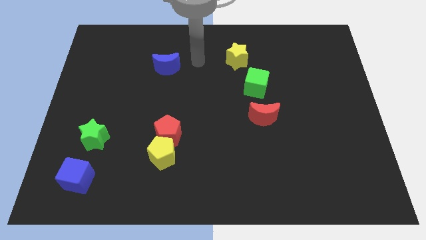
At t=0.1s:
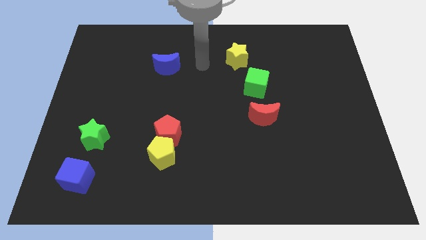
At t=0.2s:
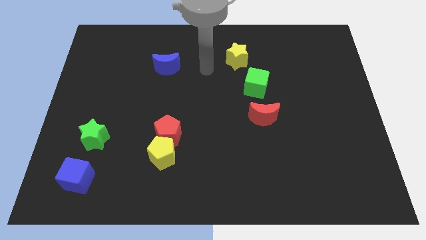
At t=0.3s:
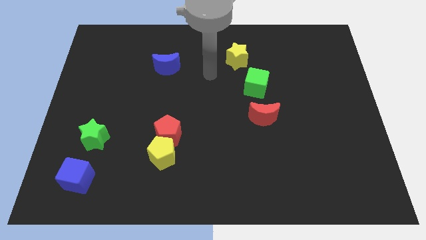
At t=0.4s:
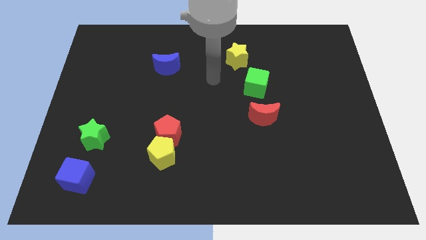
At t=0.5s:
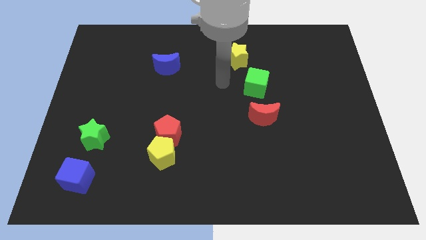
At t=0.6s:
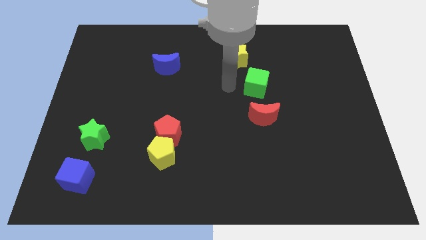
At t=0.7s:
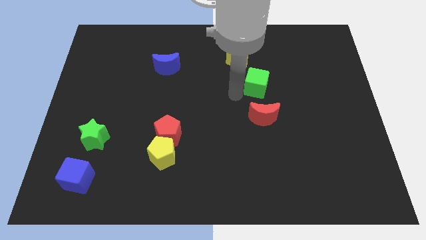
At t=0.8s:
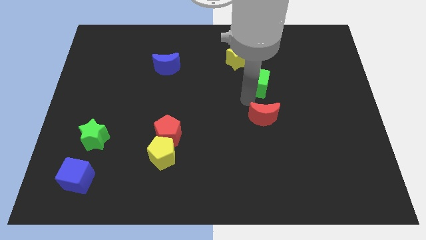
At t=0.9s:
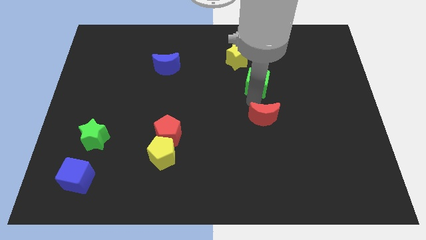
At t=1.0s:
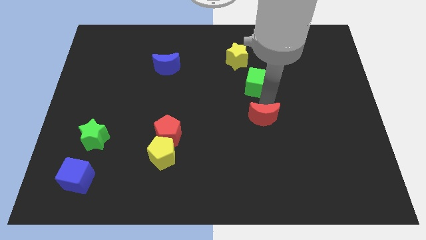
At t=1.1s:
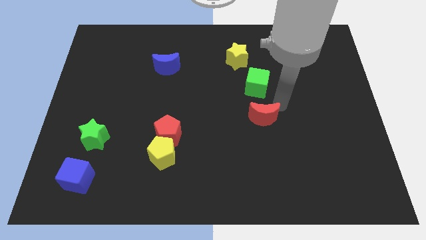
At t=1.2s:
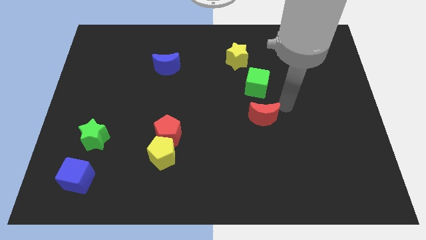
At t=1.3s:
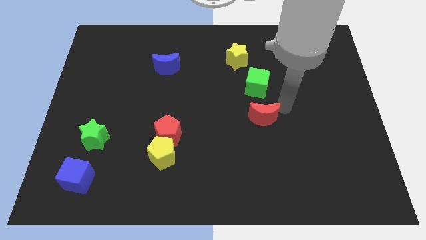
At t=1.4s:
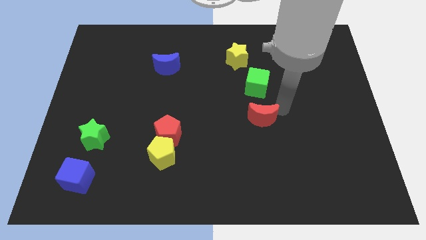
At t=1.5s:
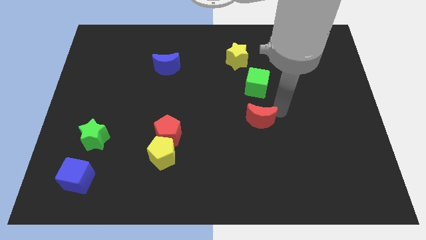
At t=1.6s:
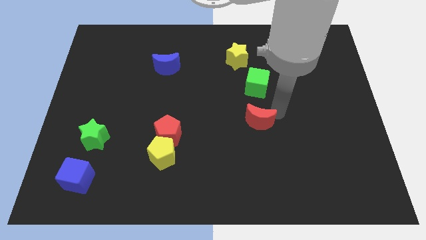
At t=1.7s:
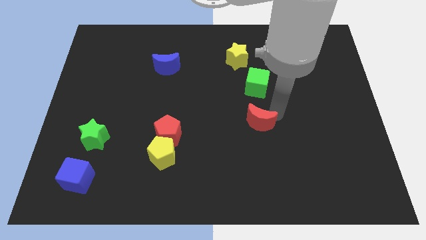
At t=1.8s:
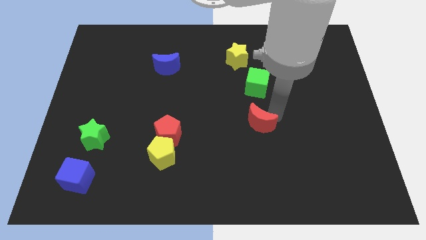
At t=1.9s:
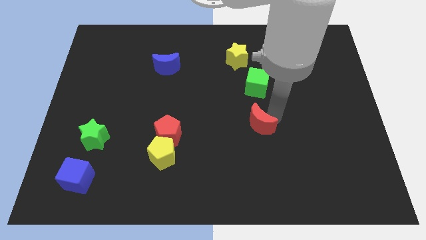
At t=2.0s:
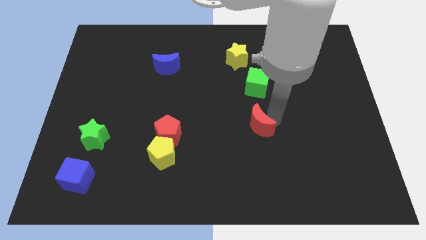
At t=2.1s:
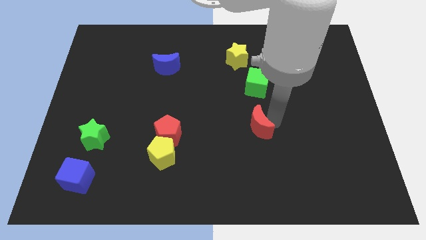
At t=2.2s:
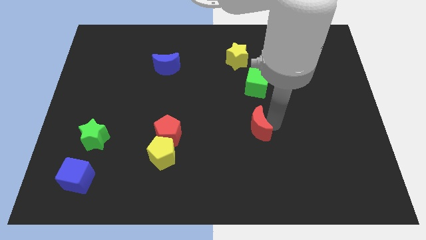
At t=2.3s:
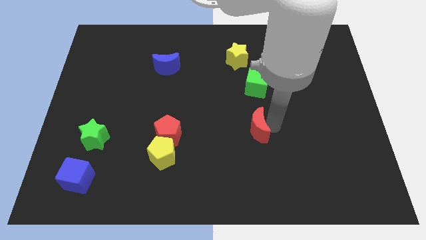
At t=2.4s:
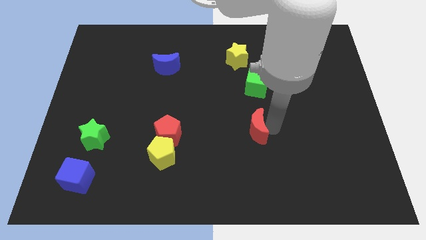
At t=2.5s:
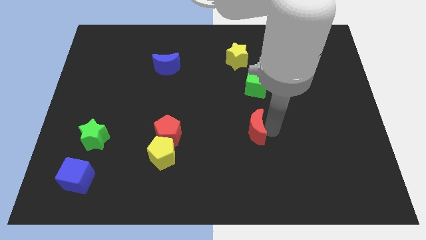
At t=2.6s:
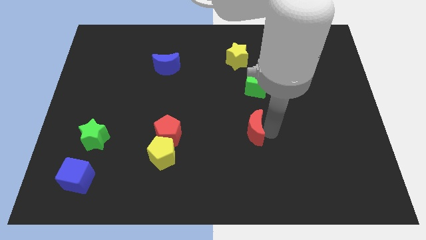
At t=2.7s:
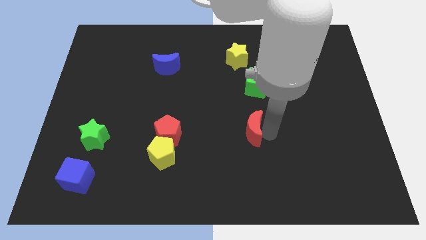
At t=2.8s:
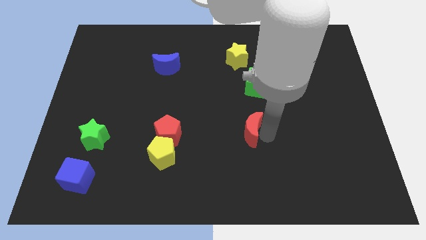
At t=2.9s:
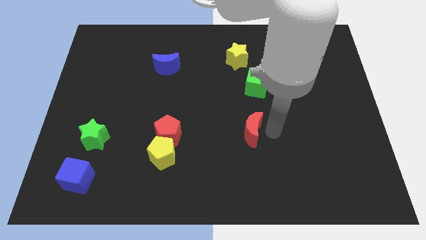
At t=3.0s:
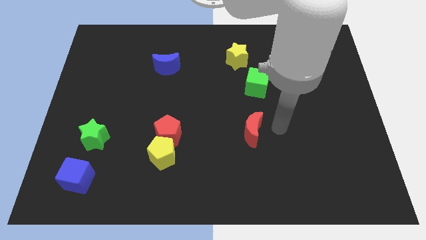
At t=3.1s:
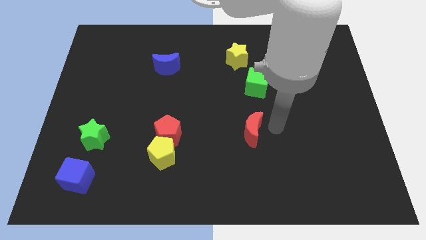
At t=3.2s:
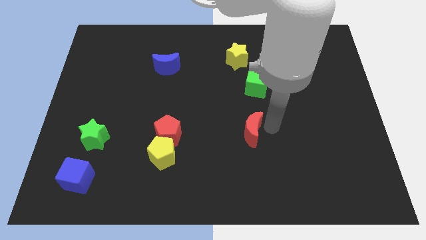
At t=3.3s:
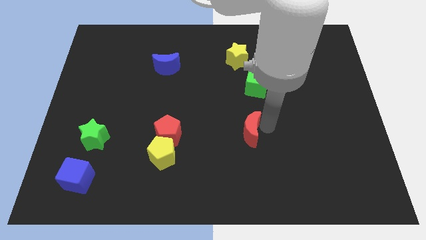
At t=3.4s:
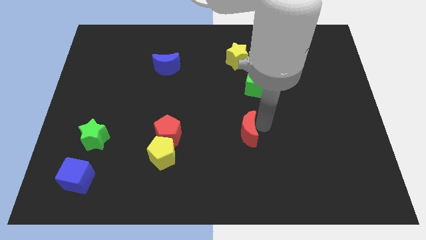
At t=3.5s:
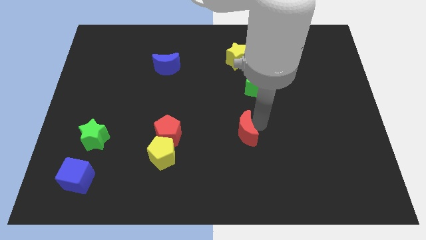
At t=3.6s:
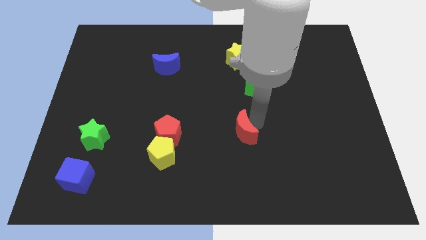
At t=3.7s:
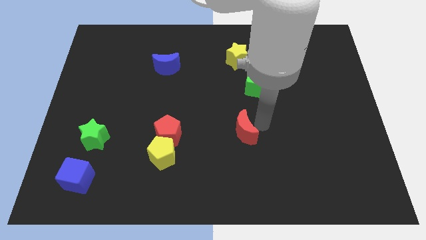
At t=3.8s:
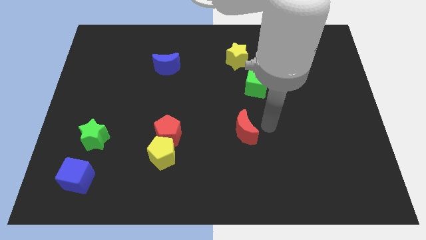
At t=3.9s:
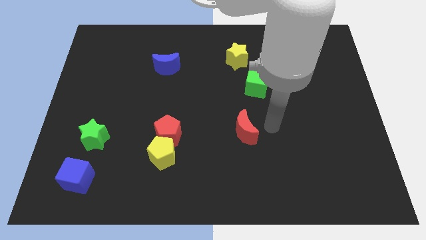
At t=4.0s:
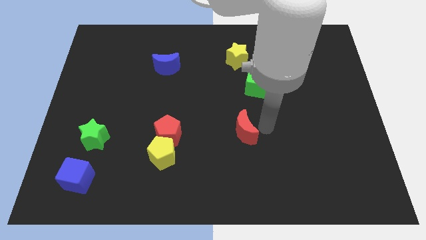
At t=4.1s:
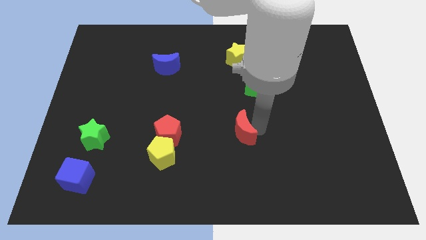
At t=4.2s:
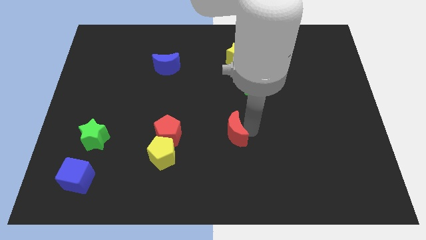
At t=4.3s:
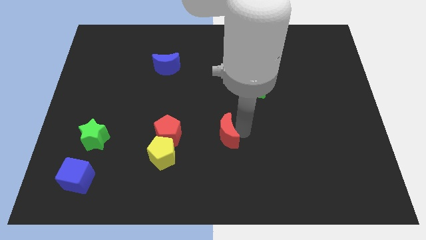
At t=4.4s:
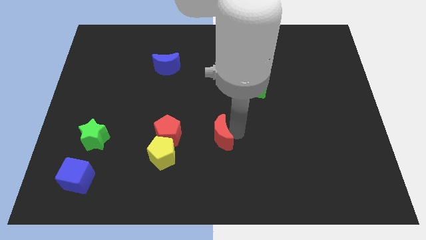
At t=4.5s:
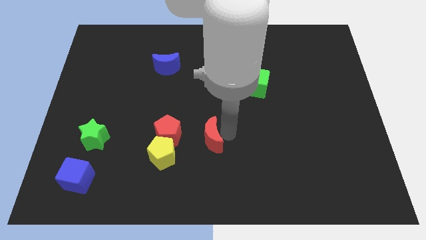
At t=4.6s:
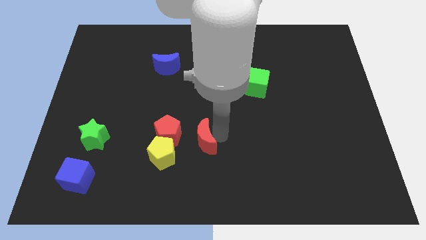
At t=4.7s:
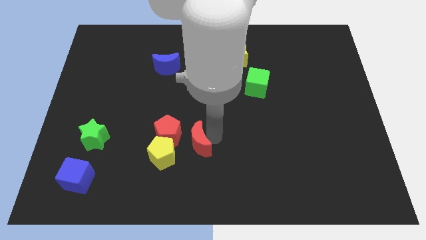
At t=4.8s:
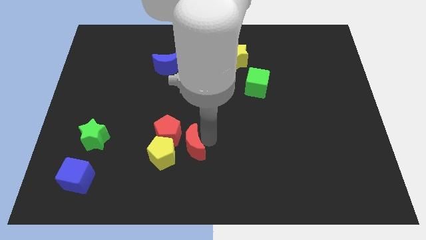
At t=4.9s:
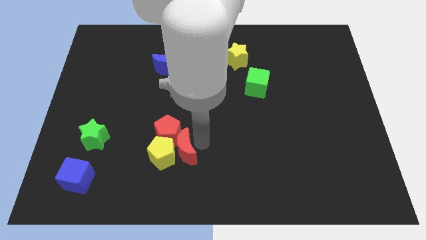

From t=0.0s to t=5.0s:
move the red moon towards the yellow pentagon

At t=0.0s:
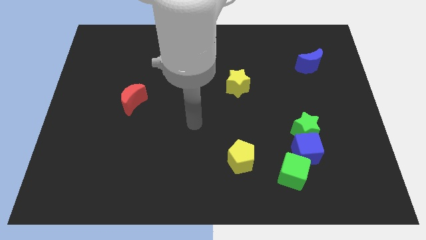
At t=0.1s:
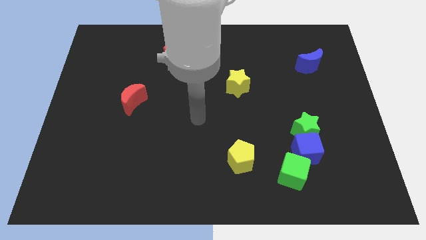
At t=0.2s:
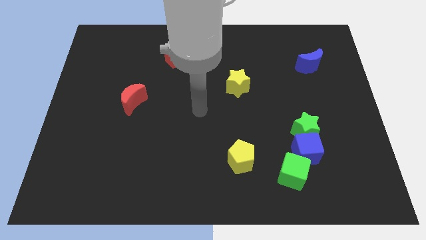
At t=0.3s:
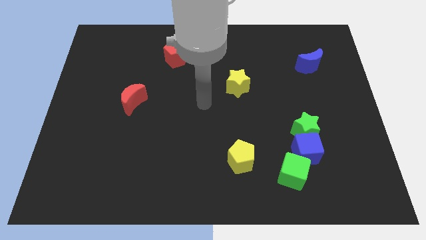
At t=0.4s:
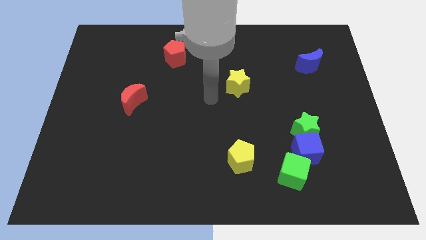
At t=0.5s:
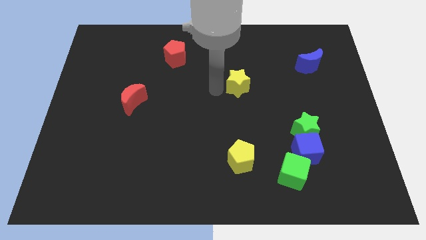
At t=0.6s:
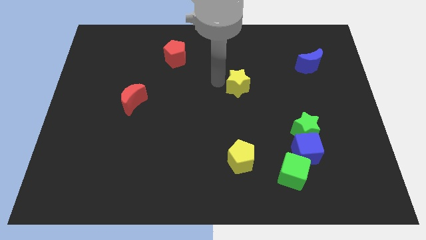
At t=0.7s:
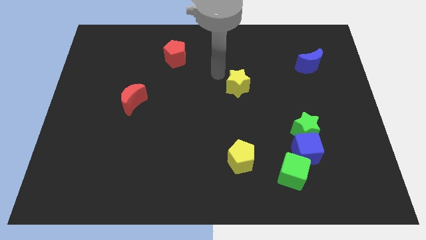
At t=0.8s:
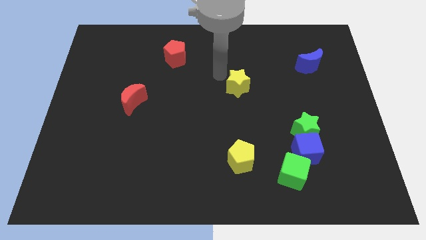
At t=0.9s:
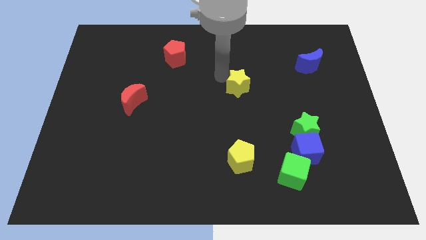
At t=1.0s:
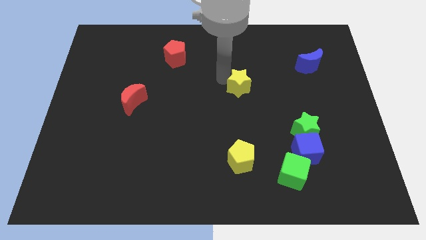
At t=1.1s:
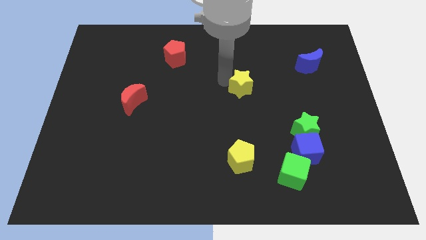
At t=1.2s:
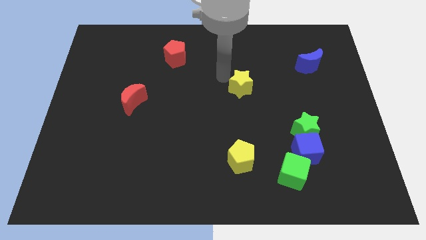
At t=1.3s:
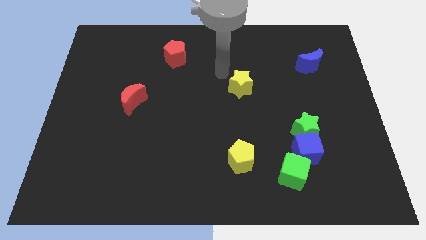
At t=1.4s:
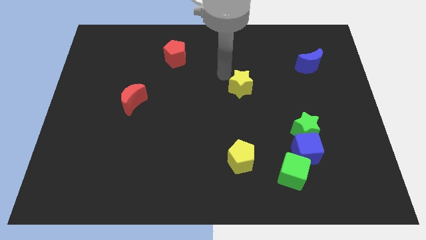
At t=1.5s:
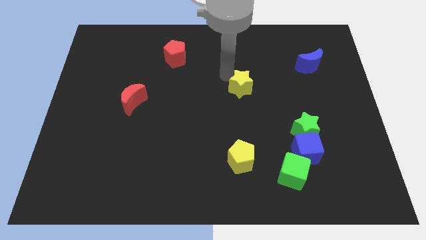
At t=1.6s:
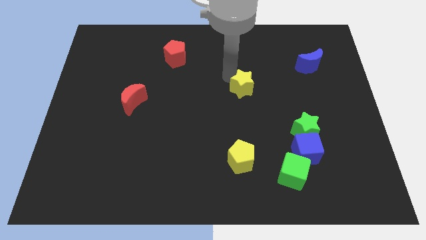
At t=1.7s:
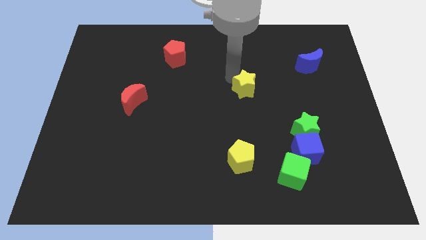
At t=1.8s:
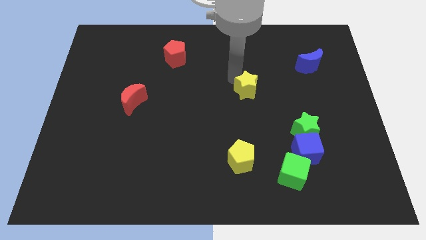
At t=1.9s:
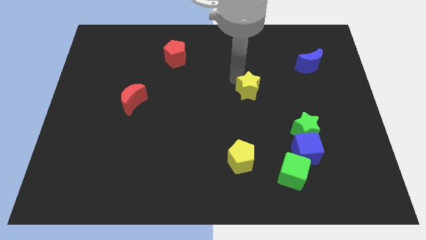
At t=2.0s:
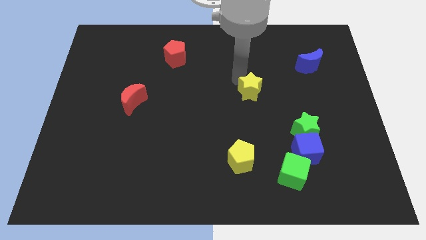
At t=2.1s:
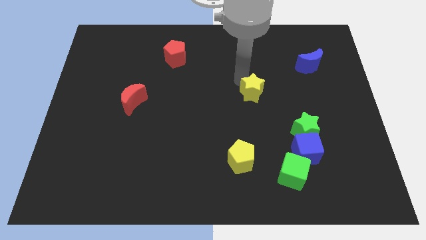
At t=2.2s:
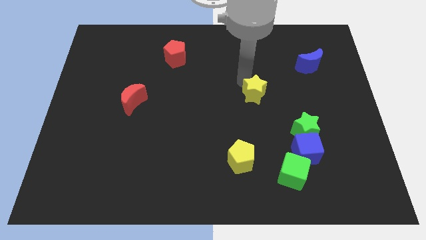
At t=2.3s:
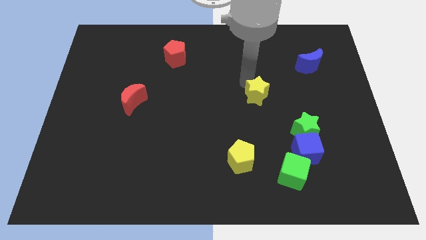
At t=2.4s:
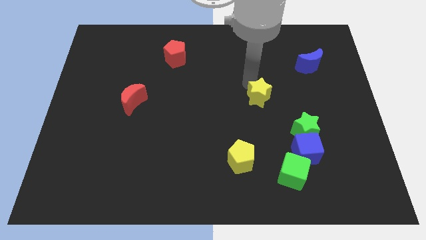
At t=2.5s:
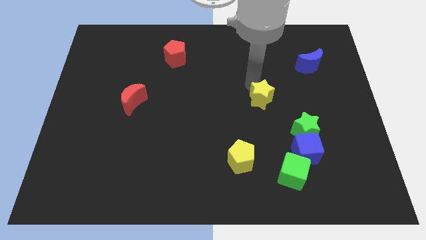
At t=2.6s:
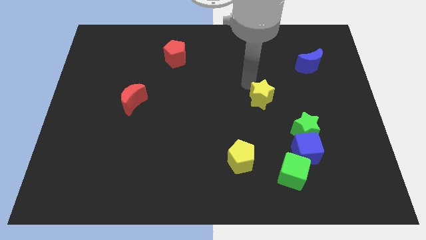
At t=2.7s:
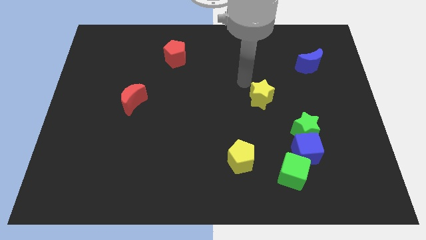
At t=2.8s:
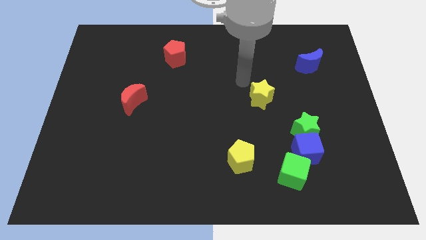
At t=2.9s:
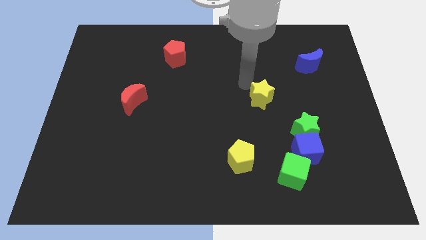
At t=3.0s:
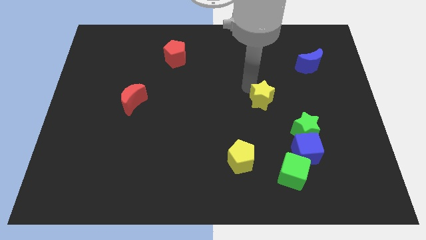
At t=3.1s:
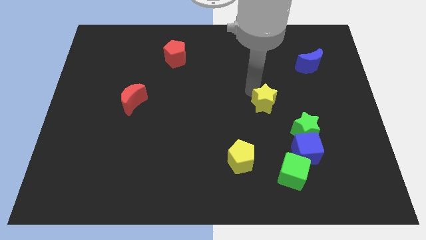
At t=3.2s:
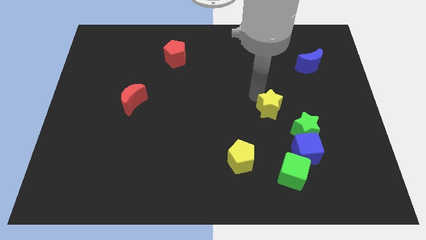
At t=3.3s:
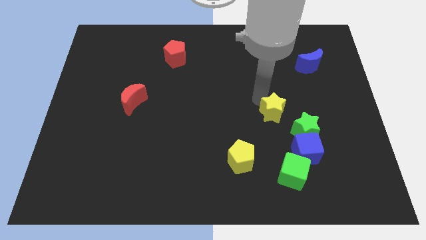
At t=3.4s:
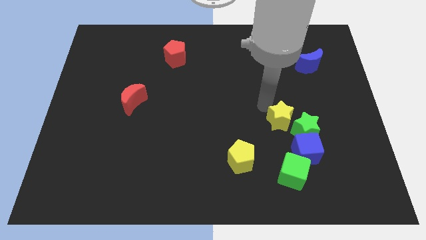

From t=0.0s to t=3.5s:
put the yellow star close to the green star
